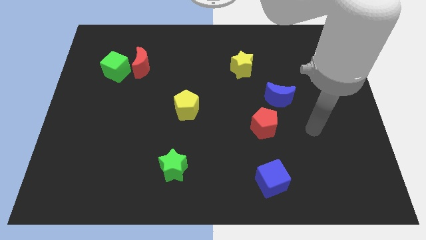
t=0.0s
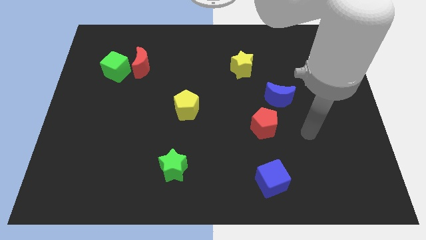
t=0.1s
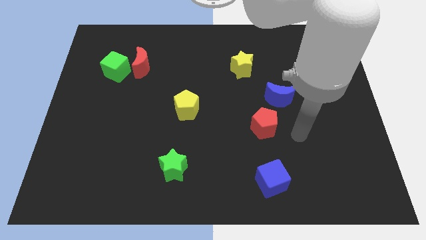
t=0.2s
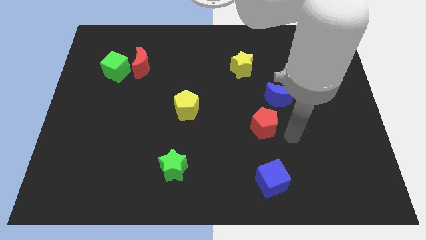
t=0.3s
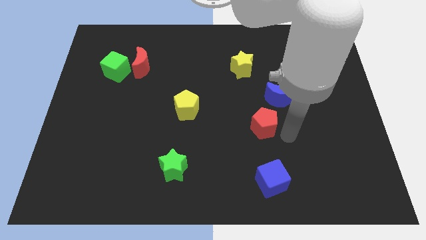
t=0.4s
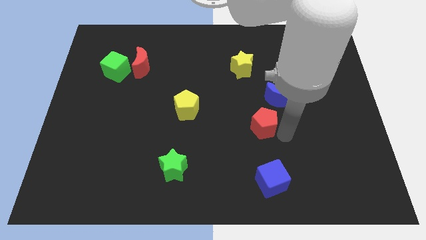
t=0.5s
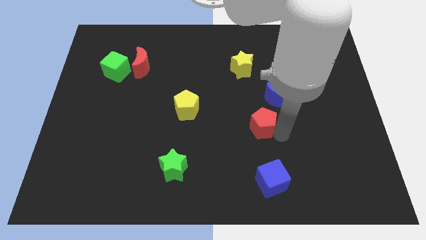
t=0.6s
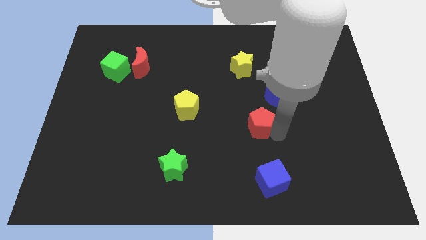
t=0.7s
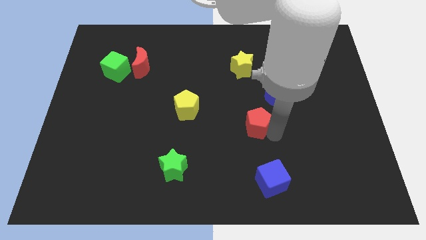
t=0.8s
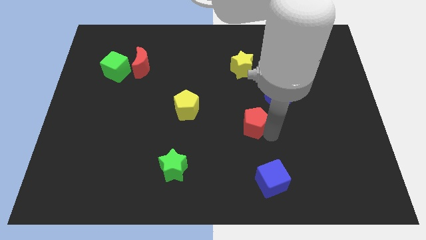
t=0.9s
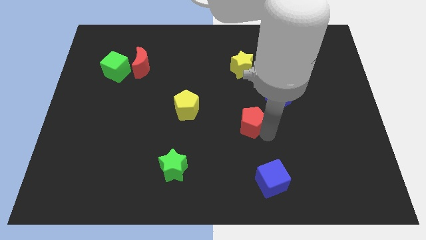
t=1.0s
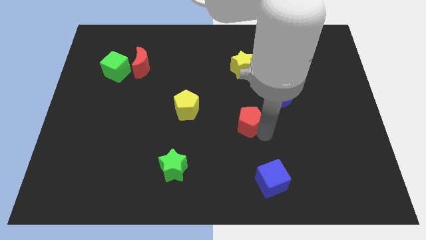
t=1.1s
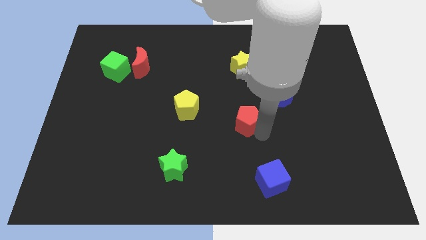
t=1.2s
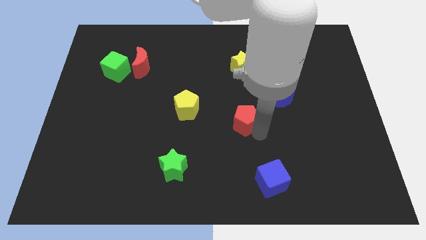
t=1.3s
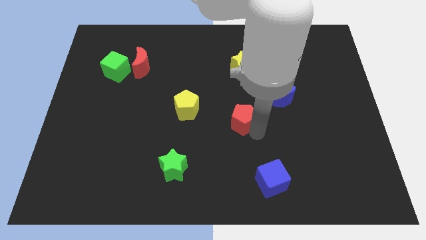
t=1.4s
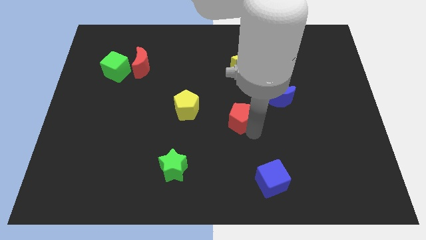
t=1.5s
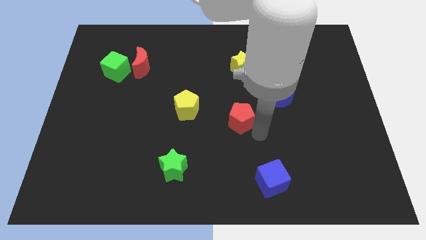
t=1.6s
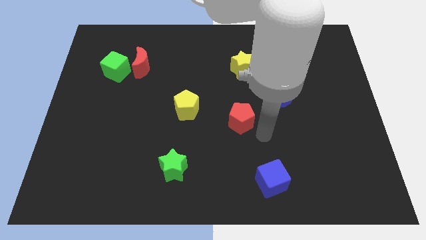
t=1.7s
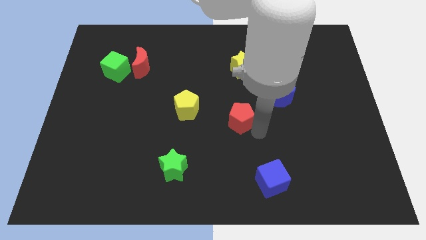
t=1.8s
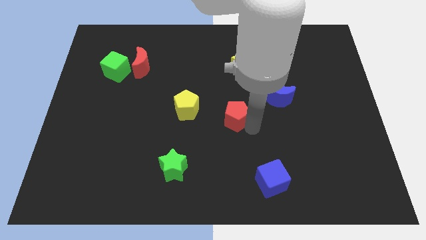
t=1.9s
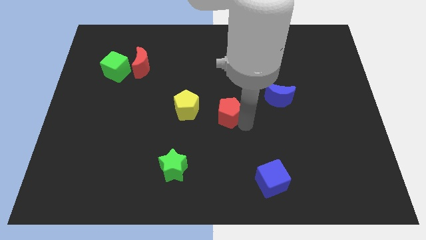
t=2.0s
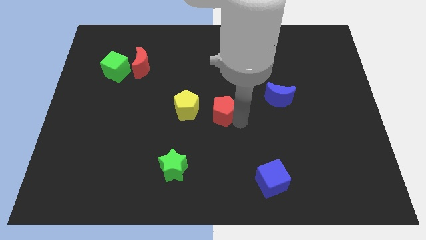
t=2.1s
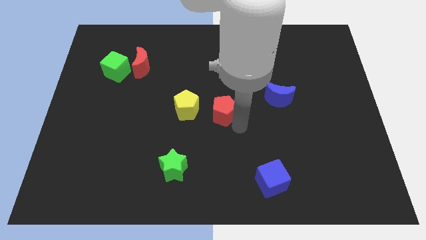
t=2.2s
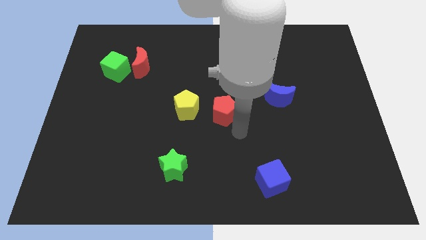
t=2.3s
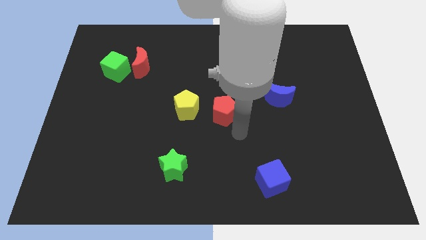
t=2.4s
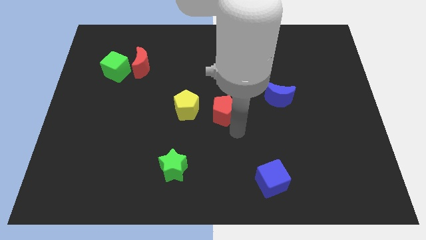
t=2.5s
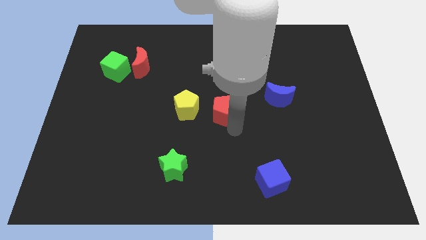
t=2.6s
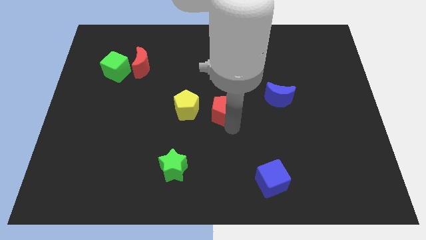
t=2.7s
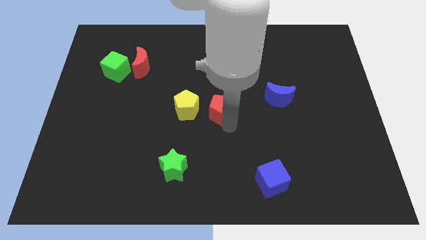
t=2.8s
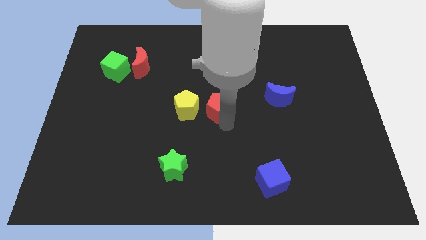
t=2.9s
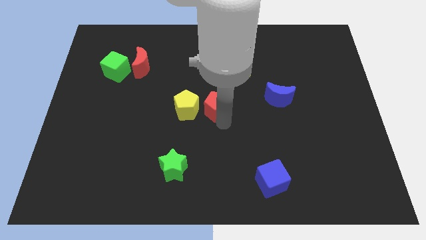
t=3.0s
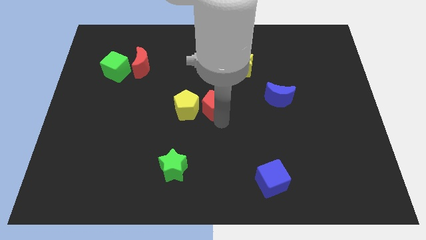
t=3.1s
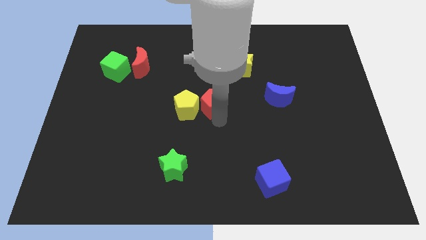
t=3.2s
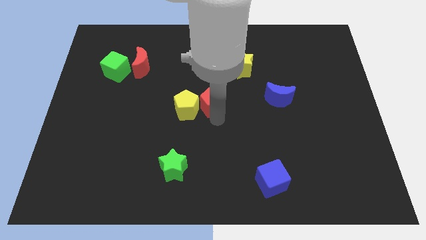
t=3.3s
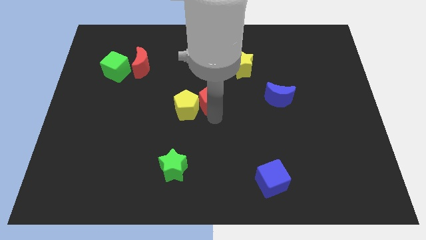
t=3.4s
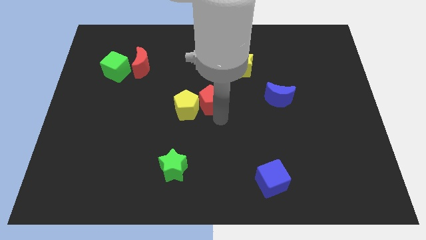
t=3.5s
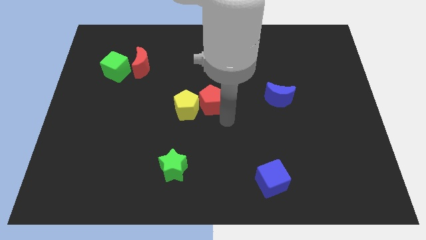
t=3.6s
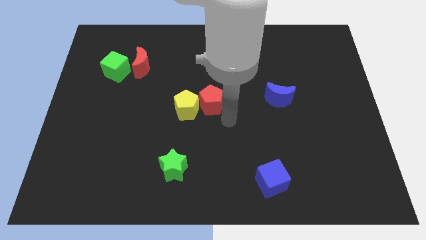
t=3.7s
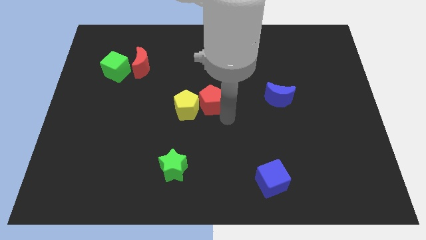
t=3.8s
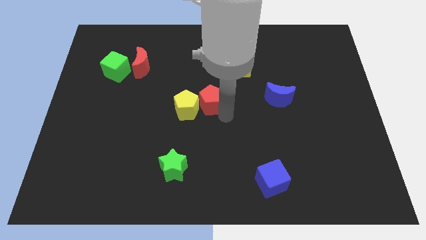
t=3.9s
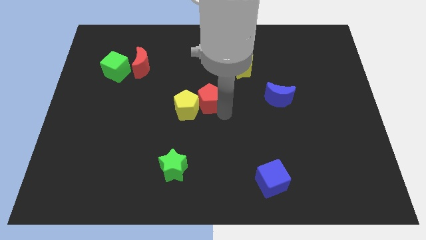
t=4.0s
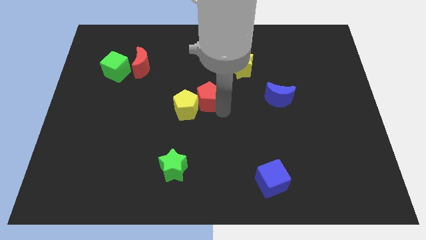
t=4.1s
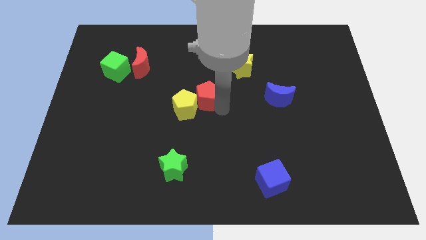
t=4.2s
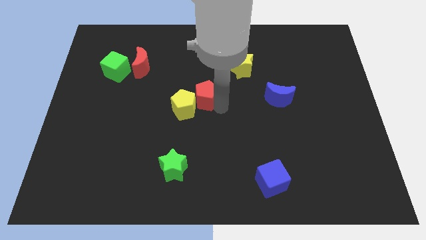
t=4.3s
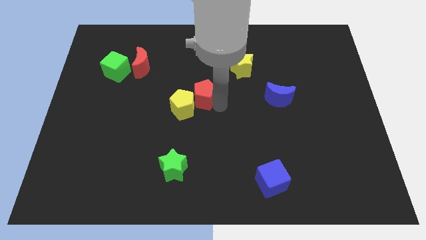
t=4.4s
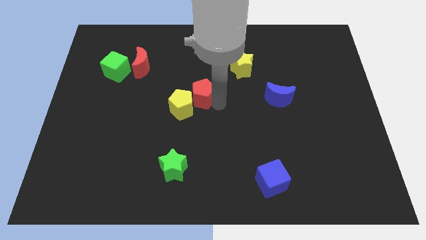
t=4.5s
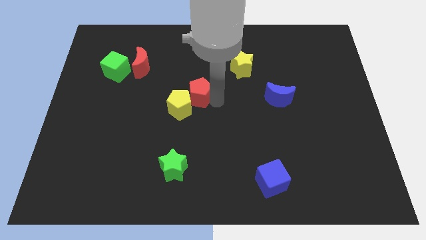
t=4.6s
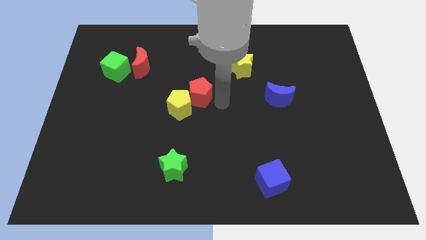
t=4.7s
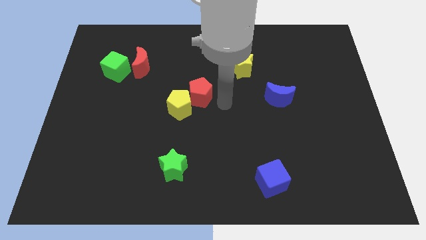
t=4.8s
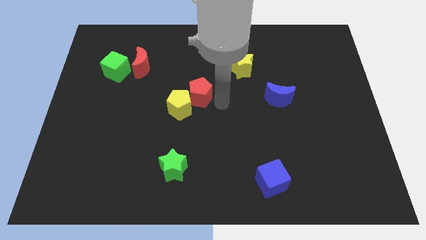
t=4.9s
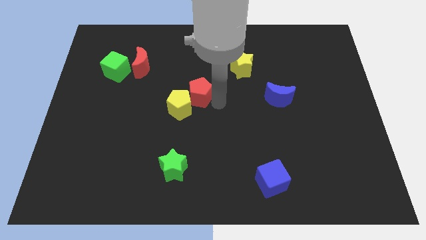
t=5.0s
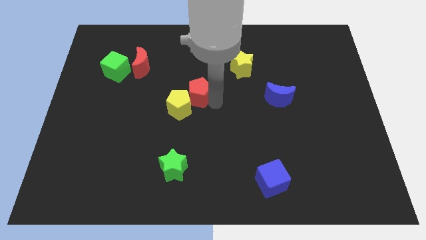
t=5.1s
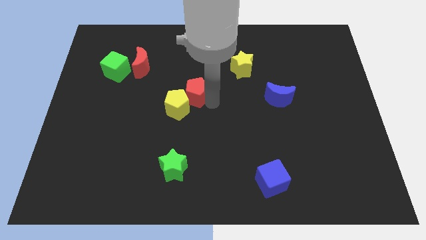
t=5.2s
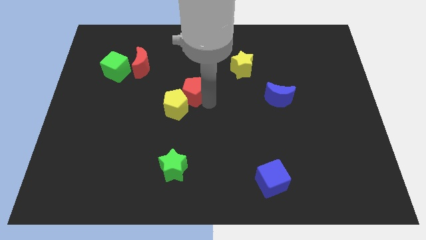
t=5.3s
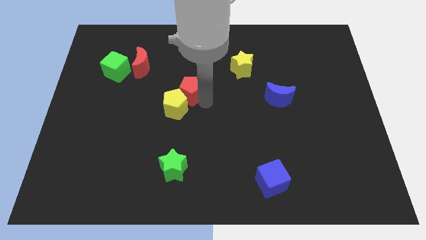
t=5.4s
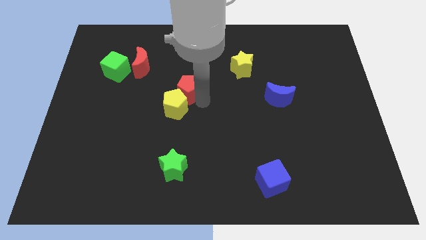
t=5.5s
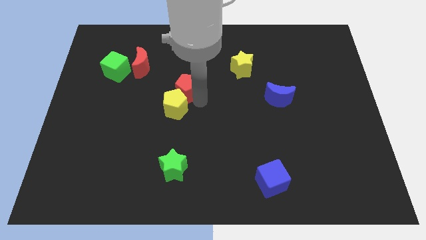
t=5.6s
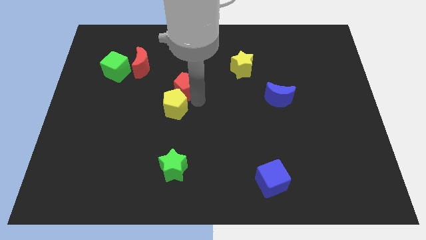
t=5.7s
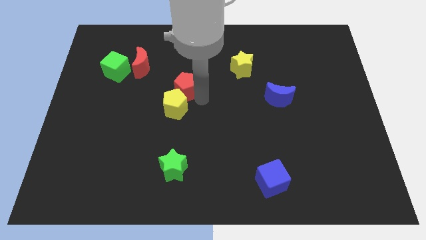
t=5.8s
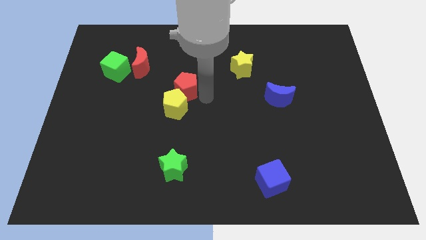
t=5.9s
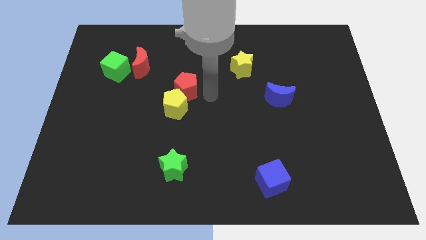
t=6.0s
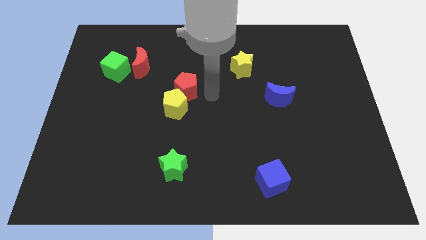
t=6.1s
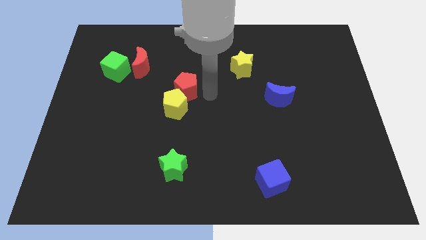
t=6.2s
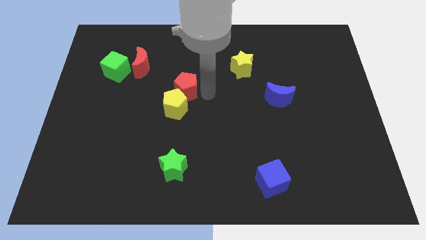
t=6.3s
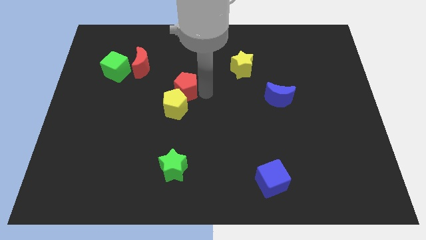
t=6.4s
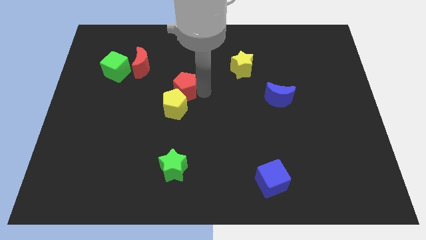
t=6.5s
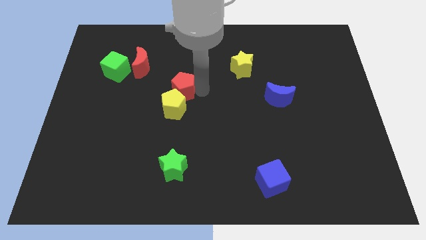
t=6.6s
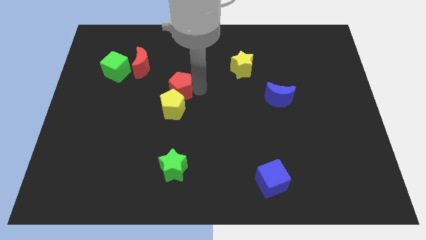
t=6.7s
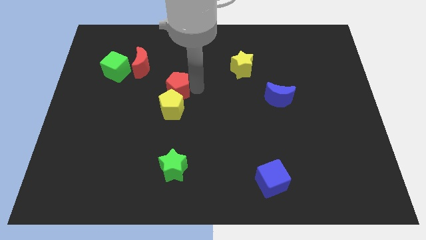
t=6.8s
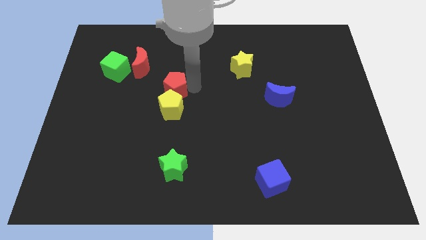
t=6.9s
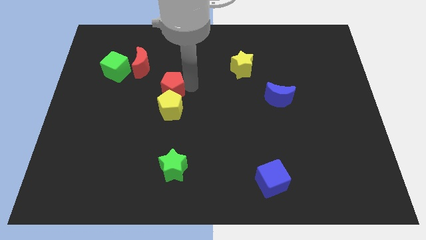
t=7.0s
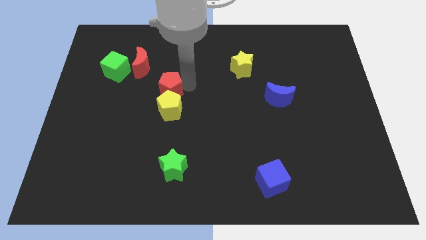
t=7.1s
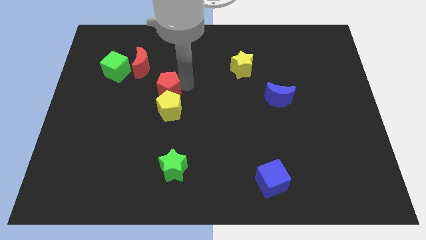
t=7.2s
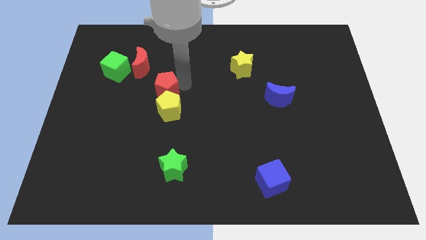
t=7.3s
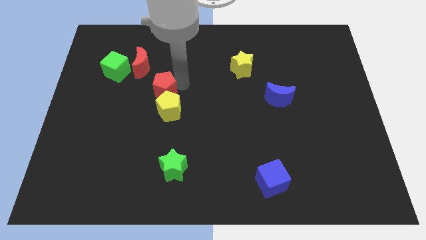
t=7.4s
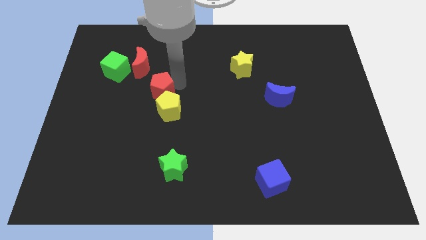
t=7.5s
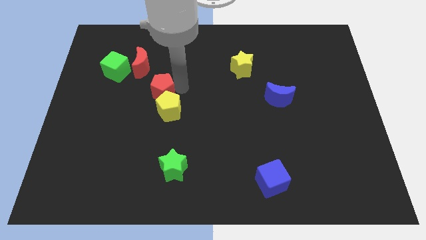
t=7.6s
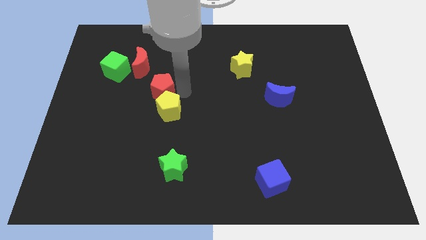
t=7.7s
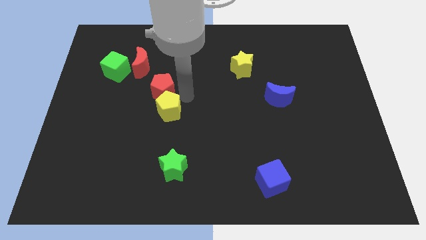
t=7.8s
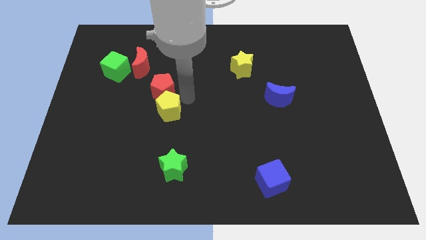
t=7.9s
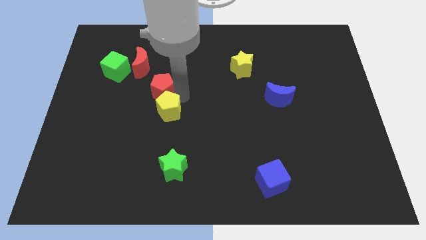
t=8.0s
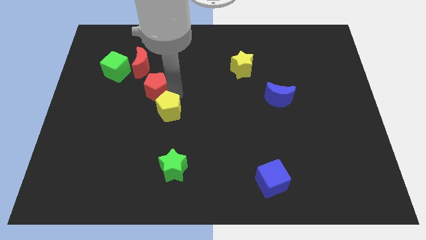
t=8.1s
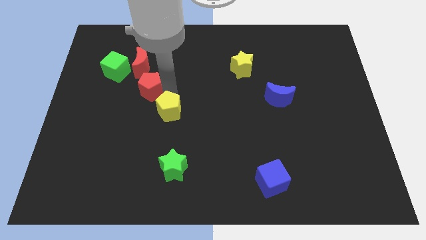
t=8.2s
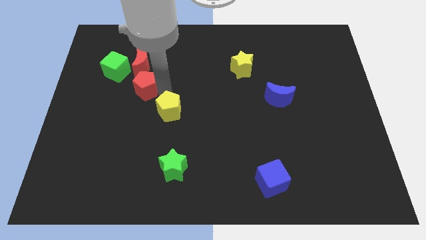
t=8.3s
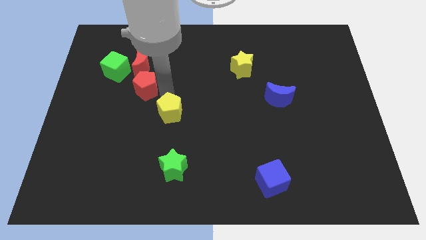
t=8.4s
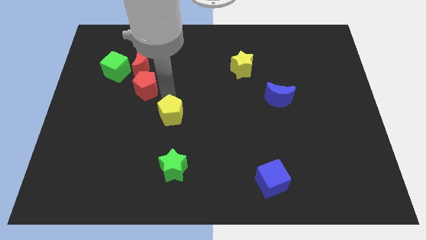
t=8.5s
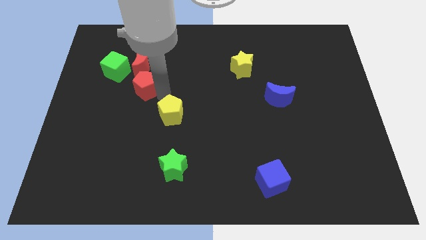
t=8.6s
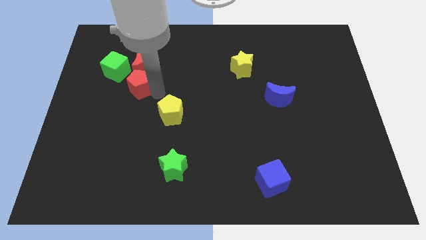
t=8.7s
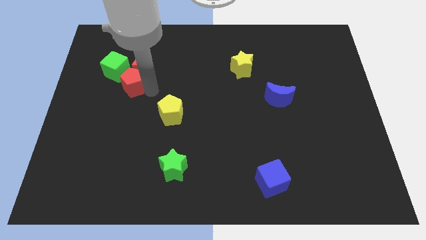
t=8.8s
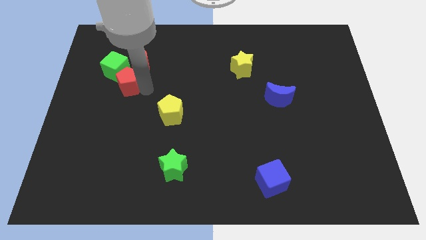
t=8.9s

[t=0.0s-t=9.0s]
push the red pentagon to the green cube
